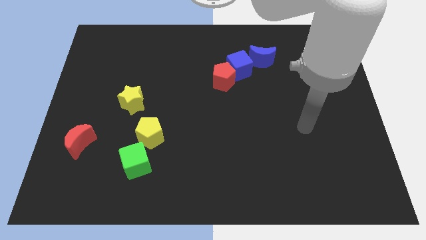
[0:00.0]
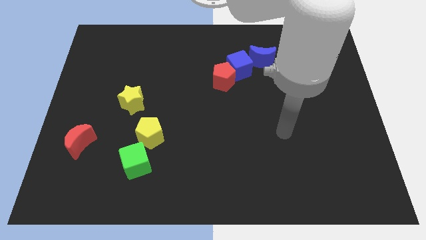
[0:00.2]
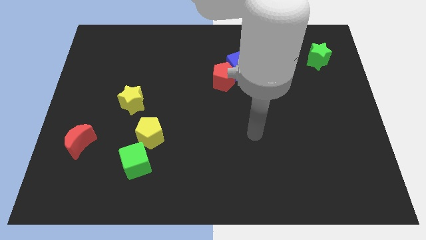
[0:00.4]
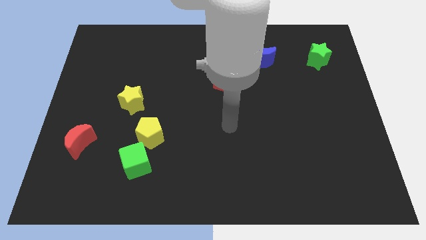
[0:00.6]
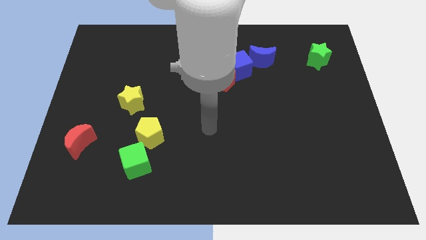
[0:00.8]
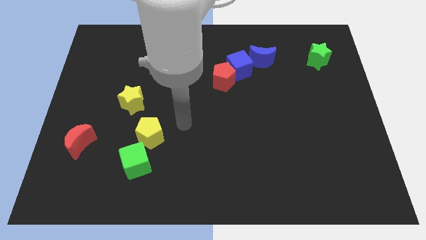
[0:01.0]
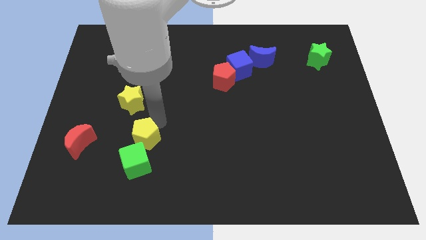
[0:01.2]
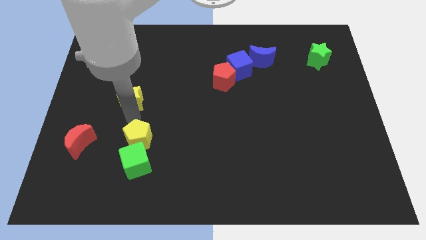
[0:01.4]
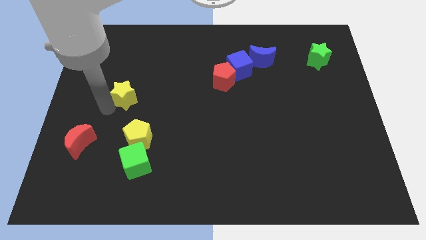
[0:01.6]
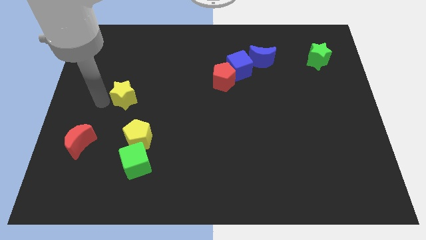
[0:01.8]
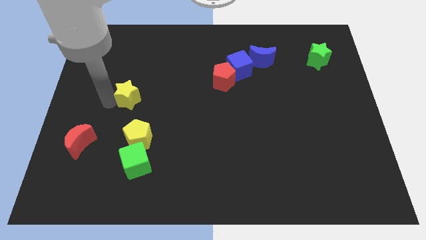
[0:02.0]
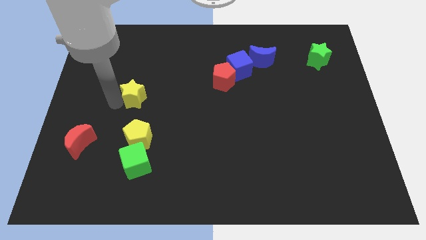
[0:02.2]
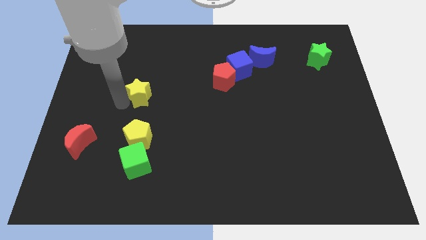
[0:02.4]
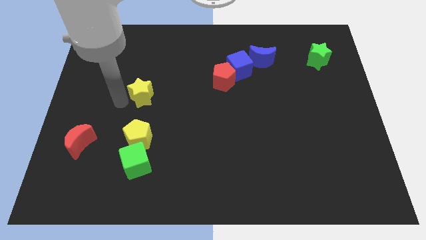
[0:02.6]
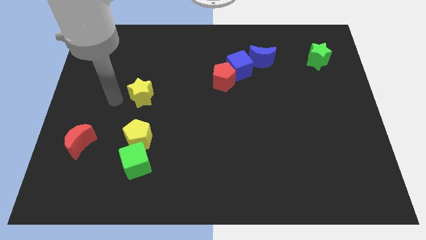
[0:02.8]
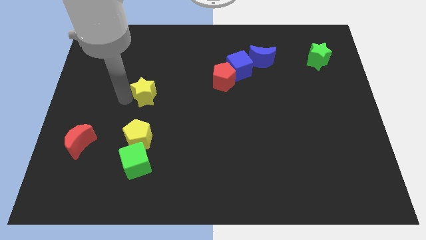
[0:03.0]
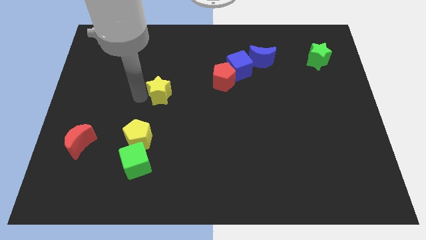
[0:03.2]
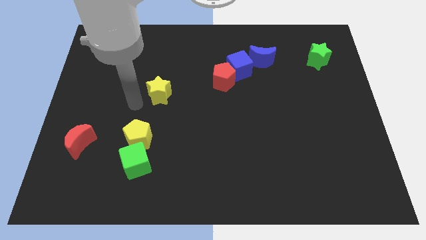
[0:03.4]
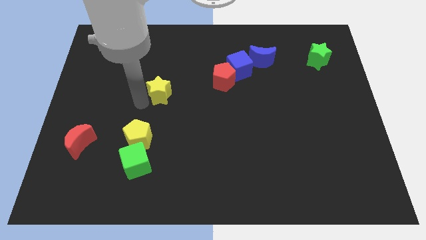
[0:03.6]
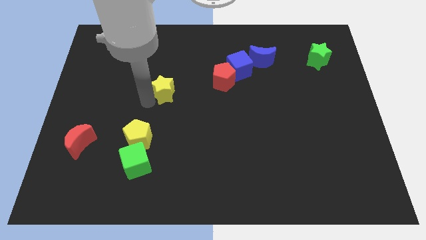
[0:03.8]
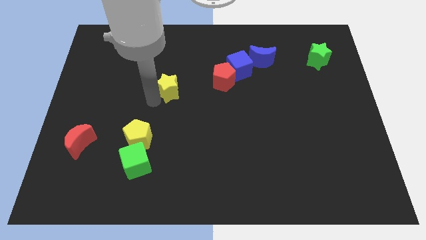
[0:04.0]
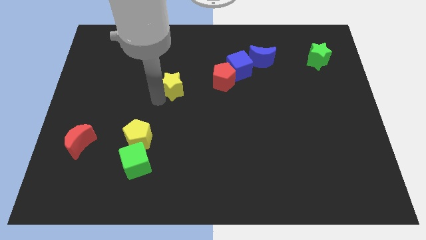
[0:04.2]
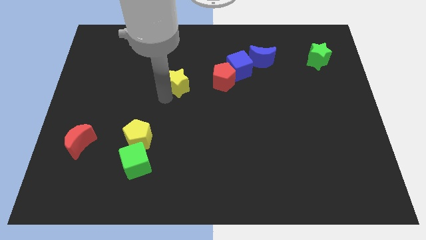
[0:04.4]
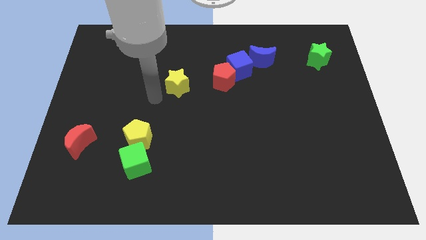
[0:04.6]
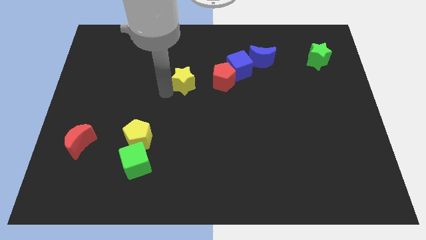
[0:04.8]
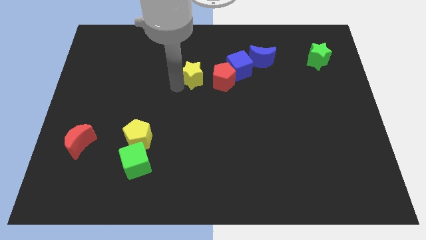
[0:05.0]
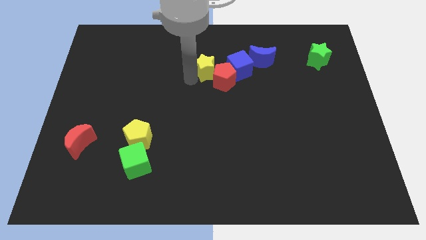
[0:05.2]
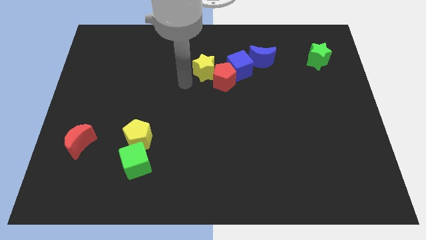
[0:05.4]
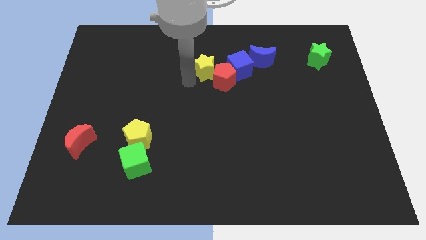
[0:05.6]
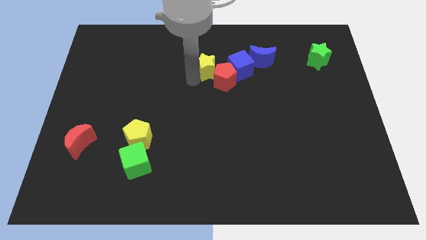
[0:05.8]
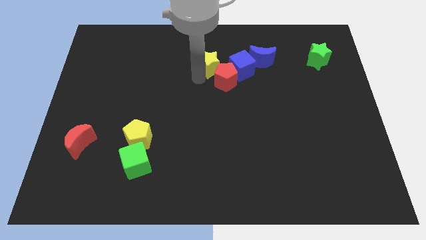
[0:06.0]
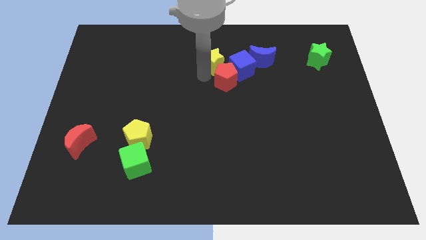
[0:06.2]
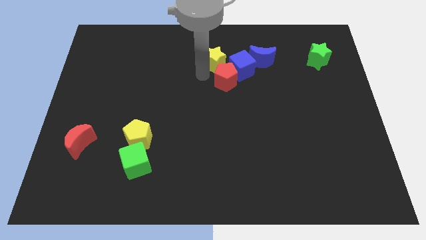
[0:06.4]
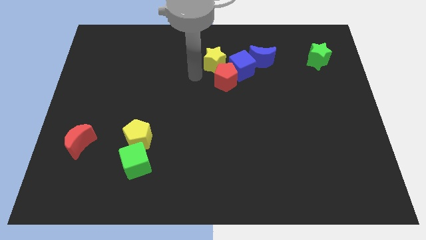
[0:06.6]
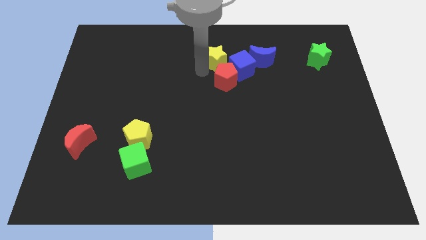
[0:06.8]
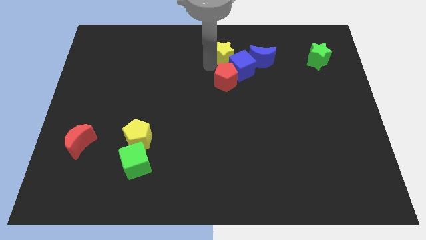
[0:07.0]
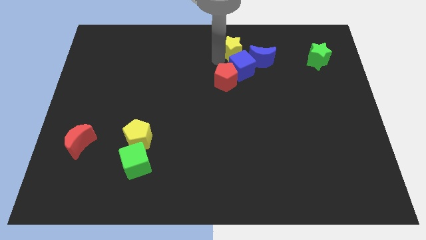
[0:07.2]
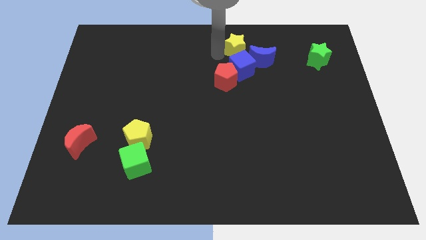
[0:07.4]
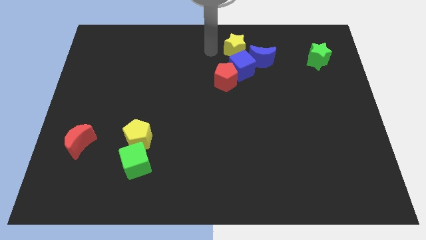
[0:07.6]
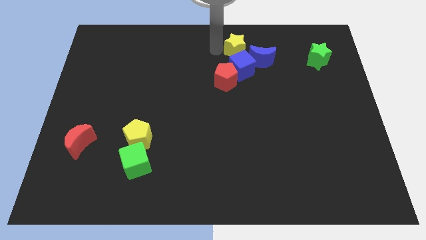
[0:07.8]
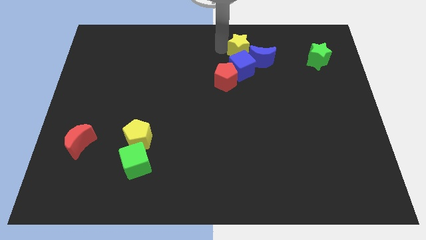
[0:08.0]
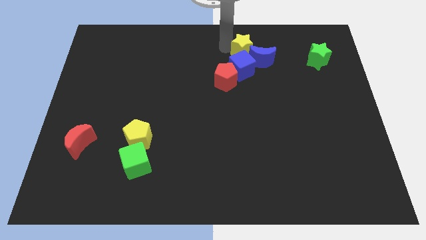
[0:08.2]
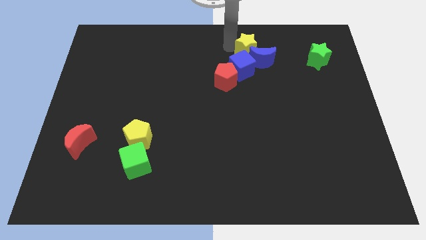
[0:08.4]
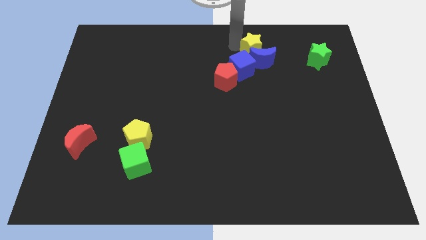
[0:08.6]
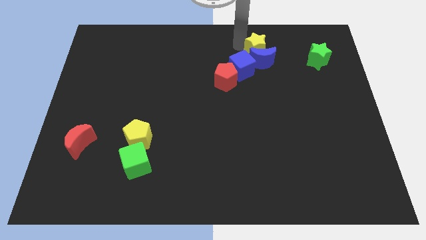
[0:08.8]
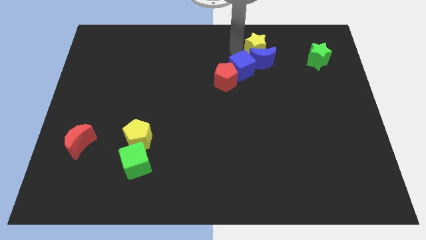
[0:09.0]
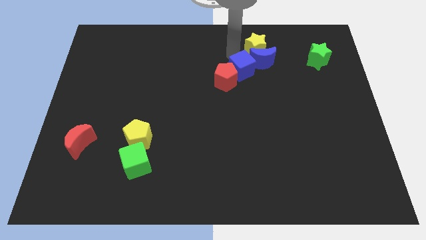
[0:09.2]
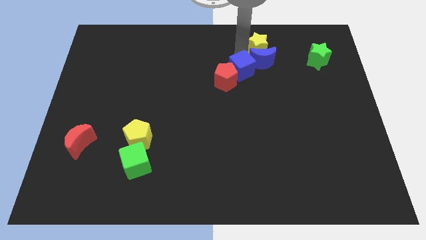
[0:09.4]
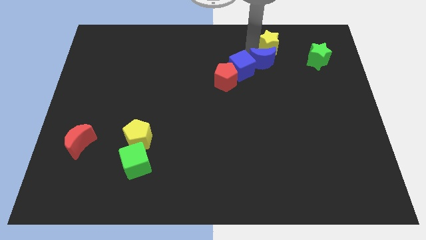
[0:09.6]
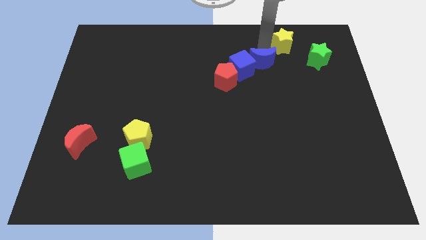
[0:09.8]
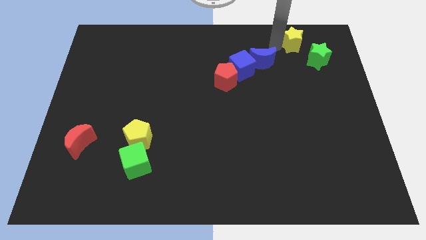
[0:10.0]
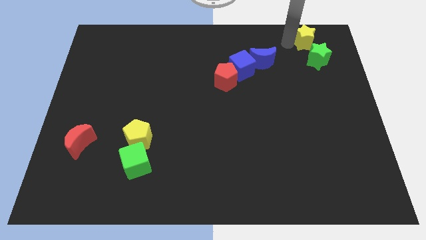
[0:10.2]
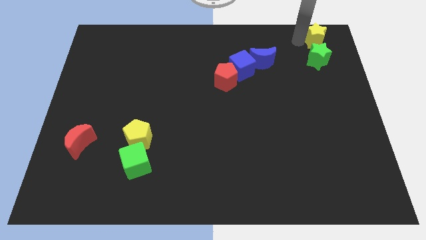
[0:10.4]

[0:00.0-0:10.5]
slide the yellow star to the top right

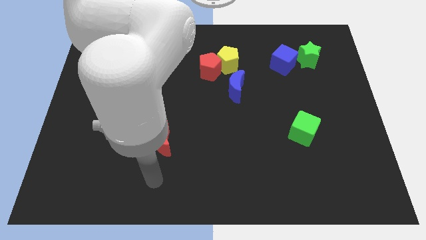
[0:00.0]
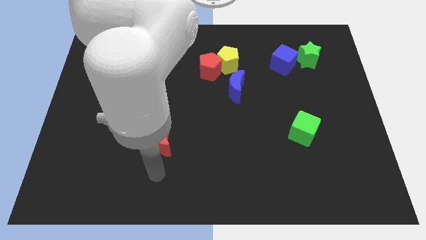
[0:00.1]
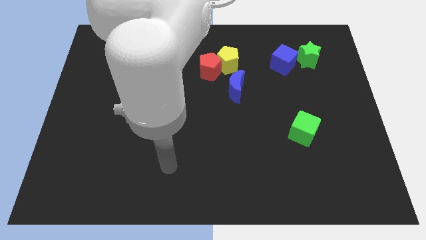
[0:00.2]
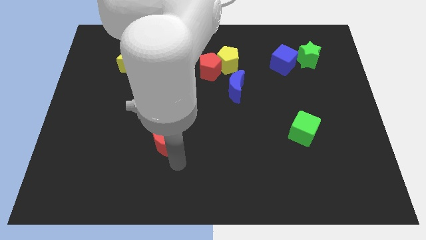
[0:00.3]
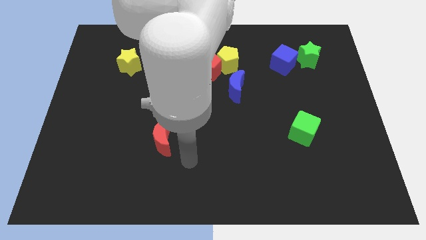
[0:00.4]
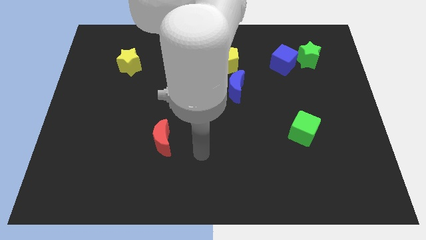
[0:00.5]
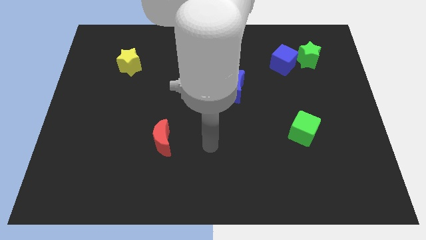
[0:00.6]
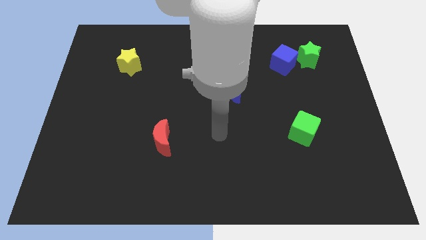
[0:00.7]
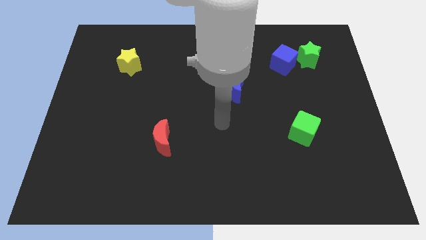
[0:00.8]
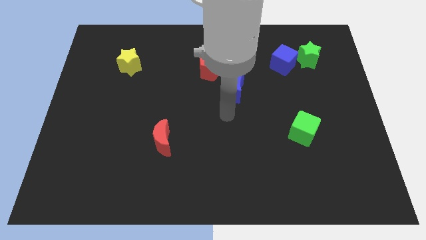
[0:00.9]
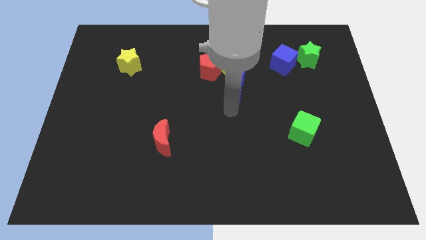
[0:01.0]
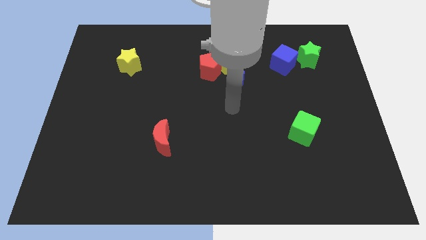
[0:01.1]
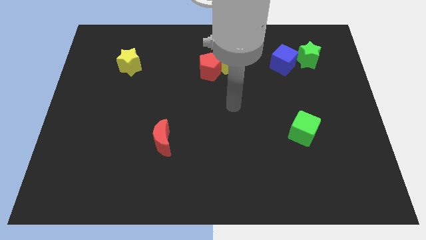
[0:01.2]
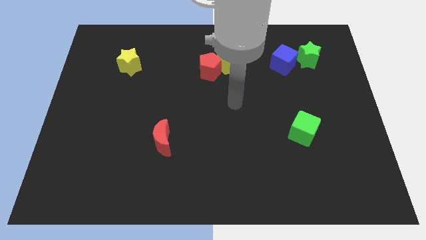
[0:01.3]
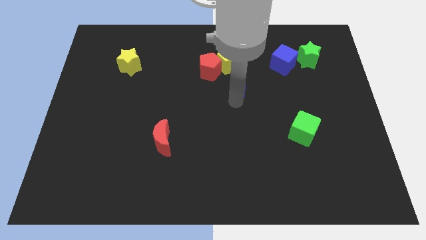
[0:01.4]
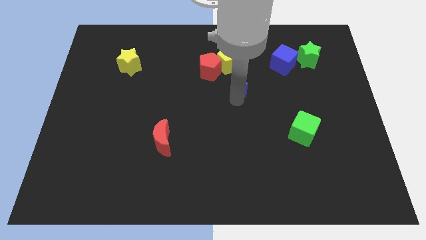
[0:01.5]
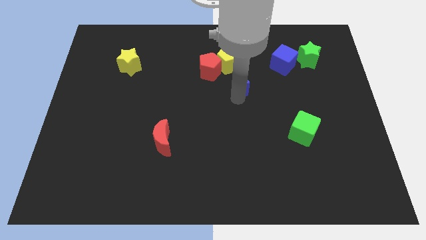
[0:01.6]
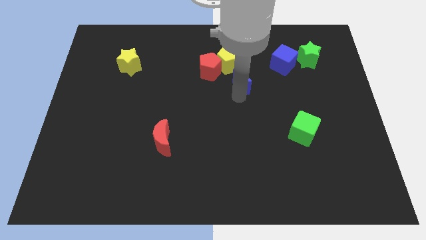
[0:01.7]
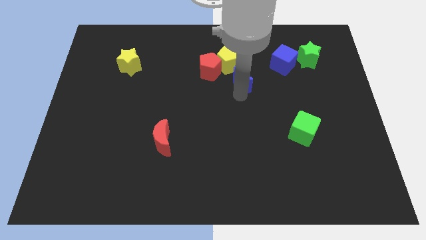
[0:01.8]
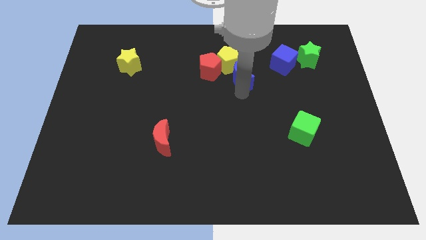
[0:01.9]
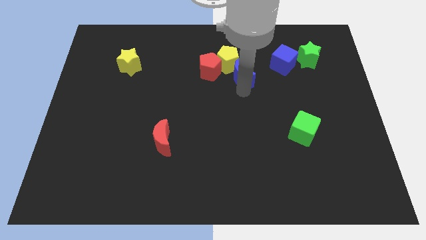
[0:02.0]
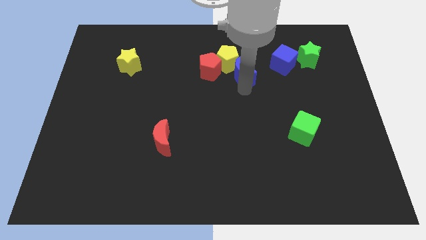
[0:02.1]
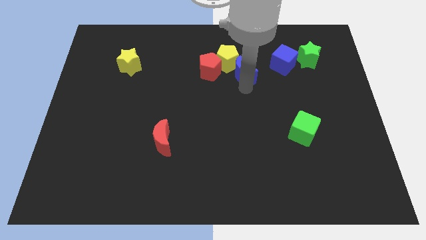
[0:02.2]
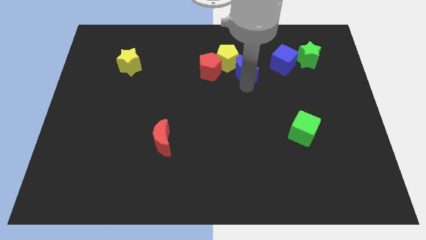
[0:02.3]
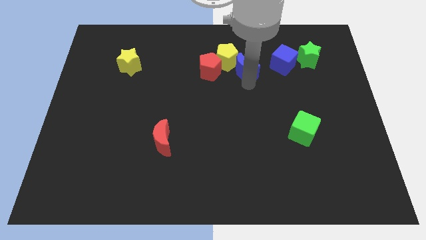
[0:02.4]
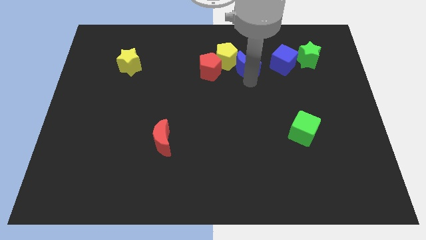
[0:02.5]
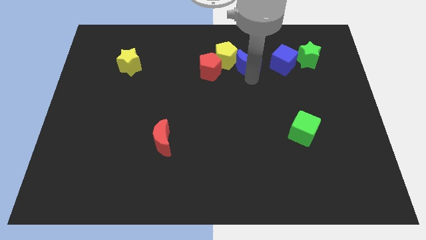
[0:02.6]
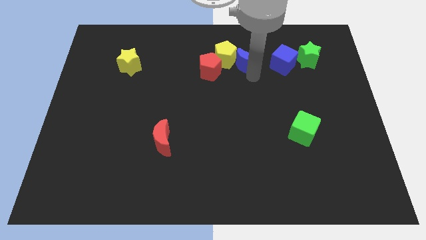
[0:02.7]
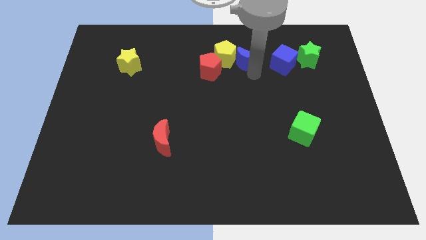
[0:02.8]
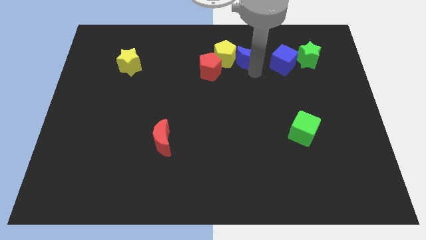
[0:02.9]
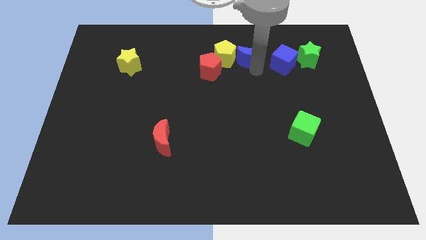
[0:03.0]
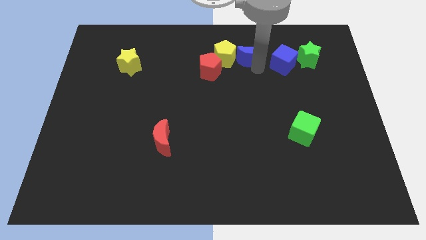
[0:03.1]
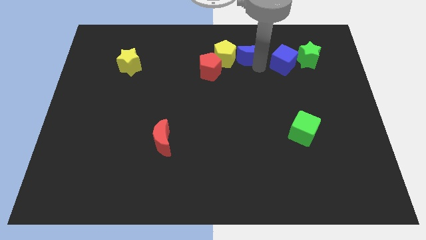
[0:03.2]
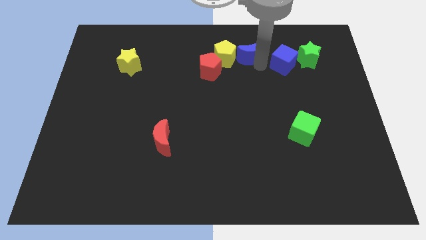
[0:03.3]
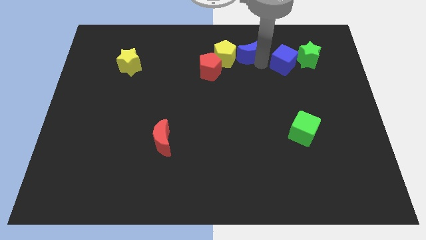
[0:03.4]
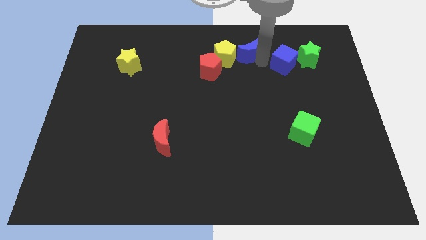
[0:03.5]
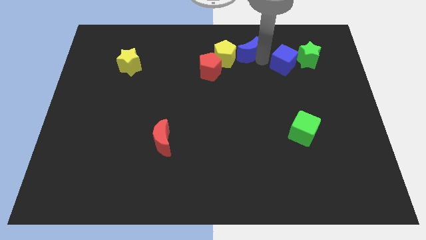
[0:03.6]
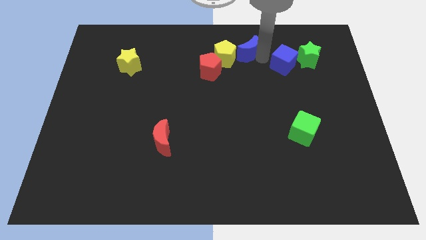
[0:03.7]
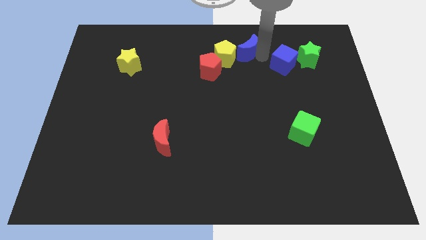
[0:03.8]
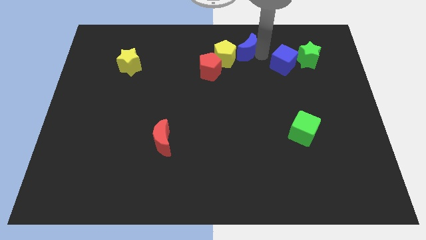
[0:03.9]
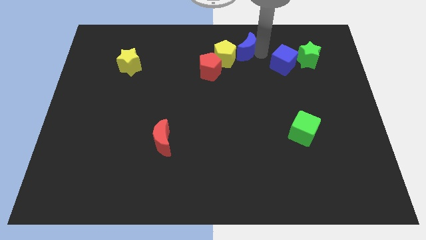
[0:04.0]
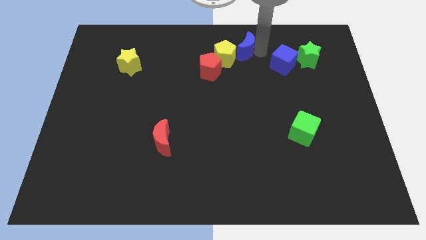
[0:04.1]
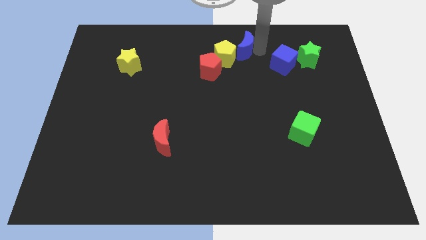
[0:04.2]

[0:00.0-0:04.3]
put the blue moon to the top
